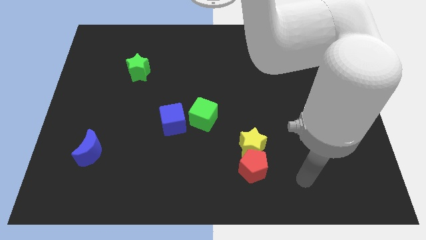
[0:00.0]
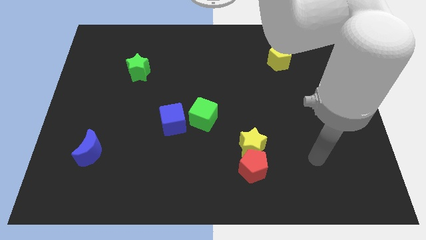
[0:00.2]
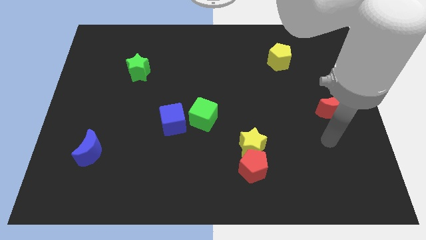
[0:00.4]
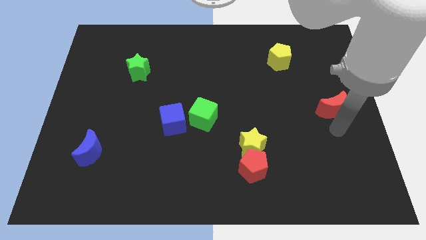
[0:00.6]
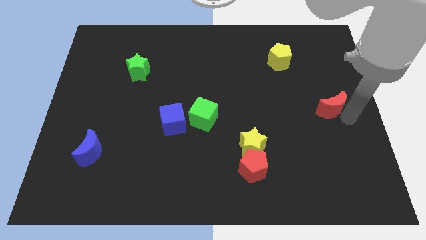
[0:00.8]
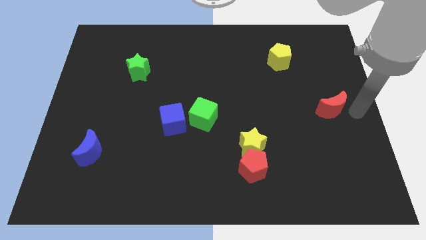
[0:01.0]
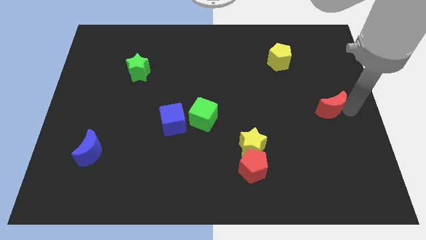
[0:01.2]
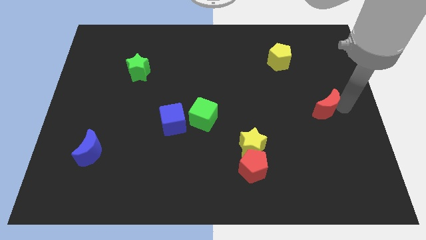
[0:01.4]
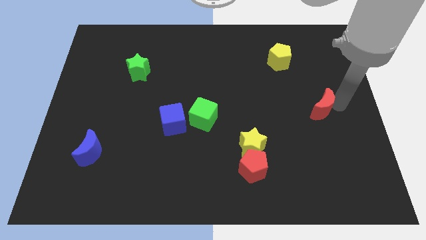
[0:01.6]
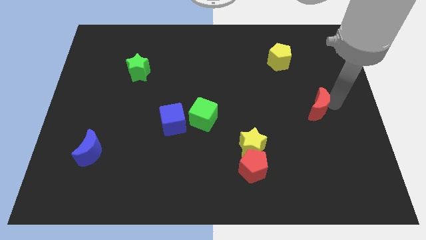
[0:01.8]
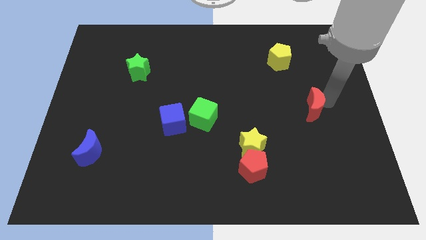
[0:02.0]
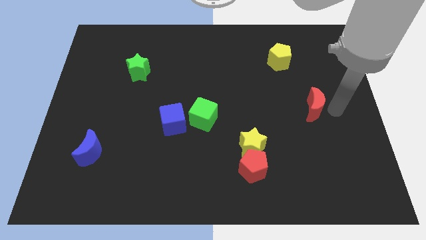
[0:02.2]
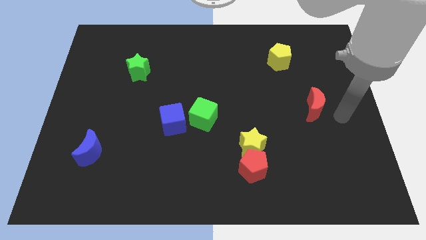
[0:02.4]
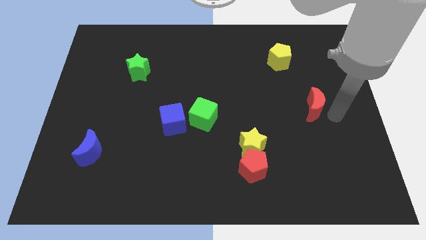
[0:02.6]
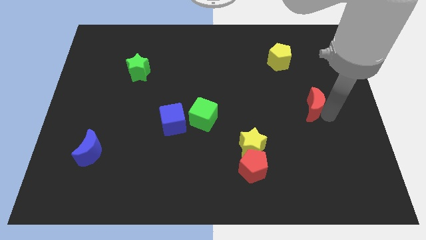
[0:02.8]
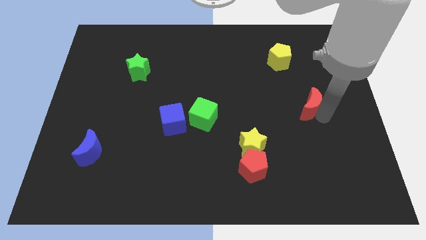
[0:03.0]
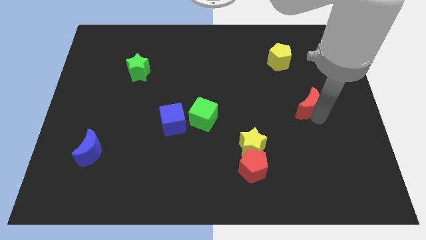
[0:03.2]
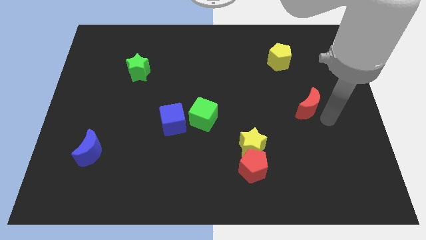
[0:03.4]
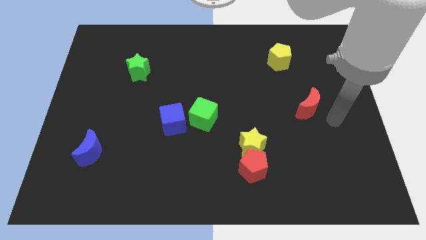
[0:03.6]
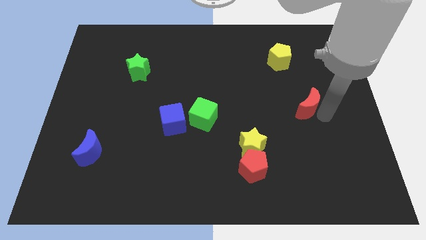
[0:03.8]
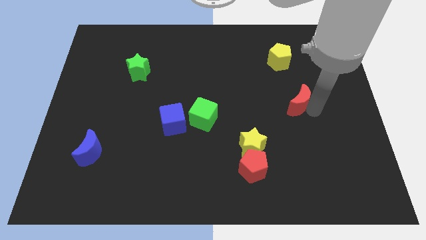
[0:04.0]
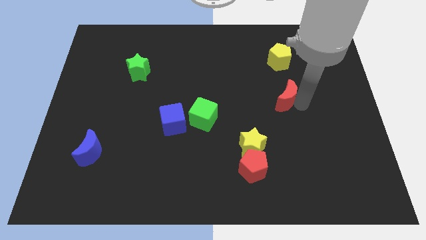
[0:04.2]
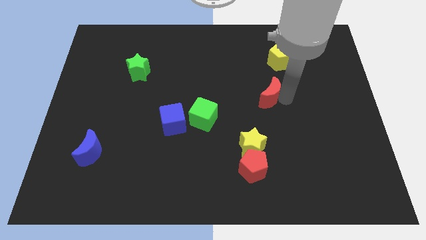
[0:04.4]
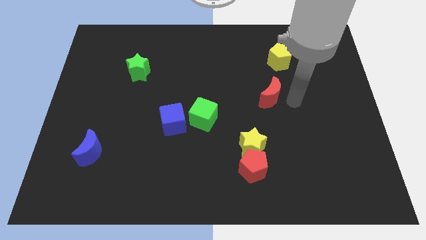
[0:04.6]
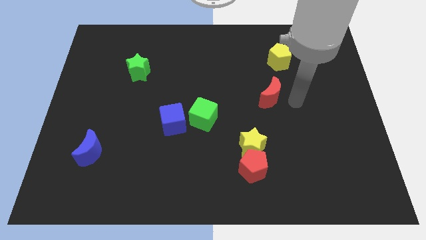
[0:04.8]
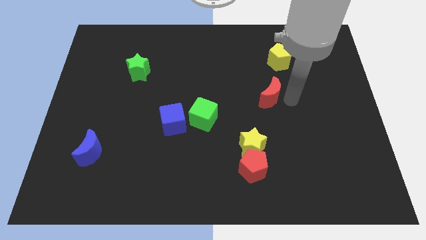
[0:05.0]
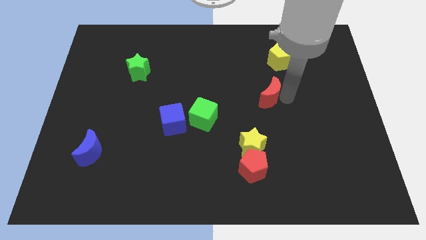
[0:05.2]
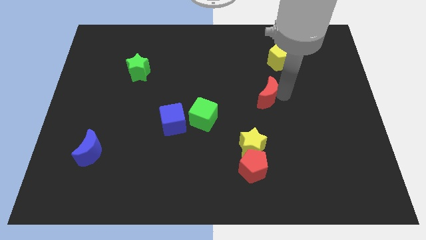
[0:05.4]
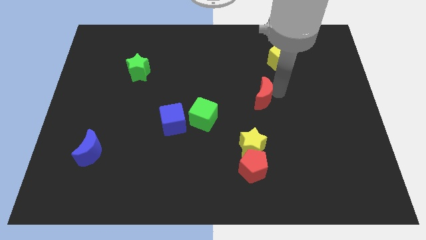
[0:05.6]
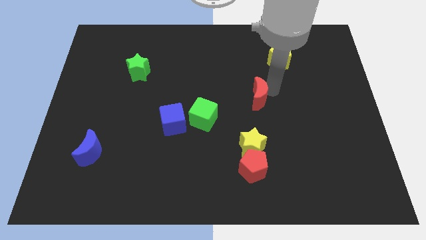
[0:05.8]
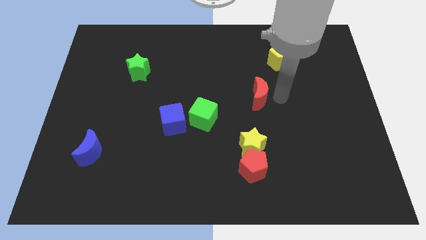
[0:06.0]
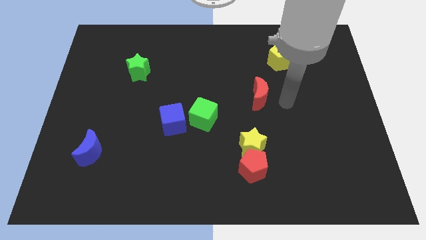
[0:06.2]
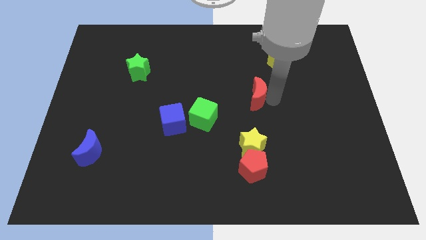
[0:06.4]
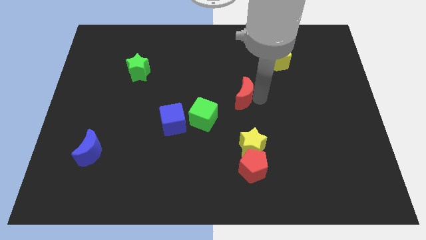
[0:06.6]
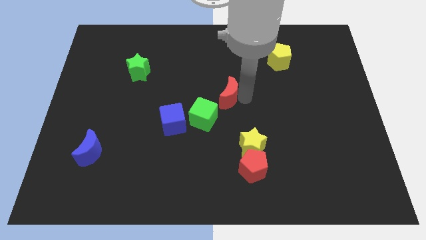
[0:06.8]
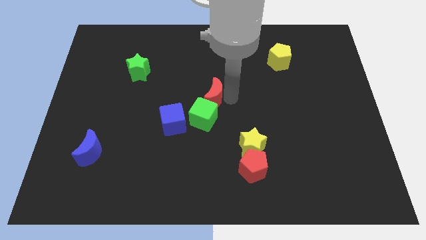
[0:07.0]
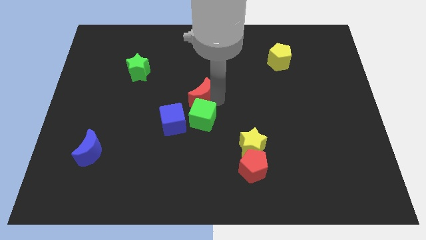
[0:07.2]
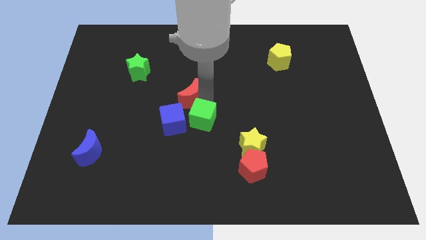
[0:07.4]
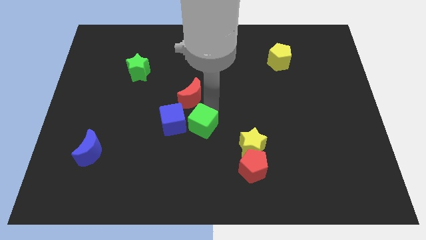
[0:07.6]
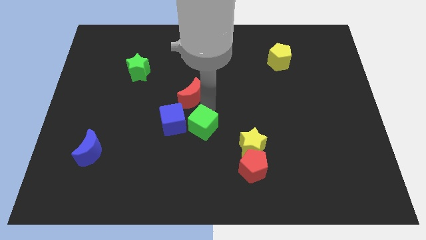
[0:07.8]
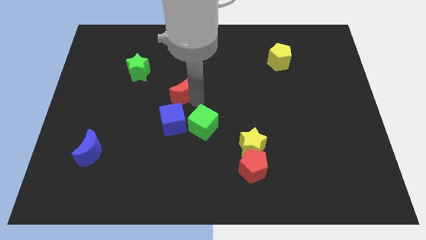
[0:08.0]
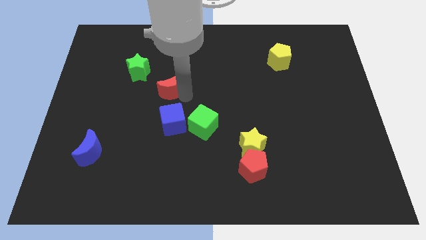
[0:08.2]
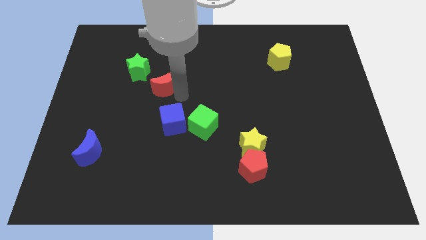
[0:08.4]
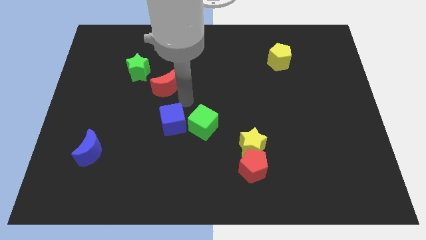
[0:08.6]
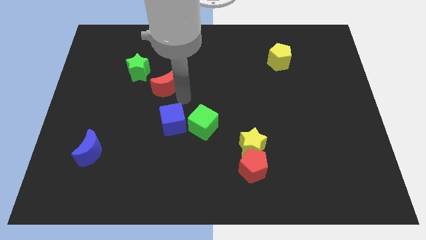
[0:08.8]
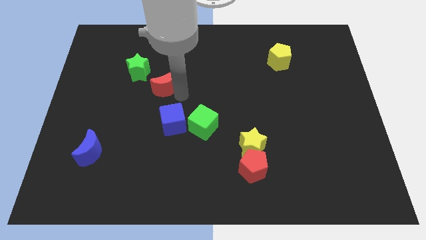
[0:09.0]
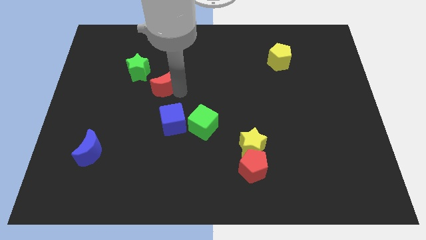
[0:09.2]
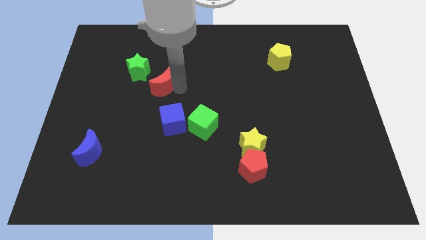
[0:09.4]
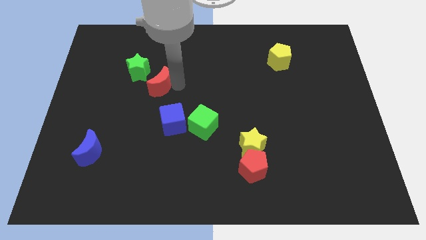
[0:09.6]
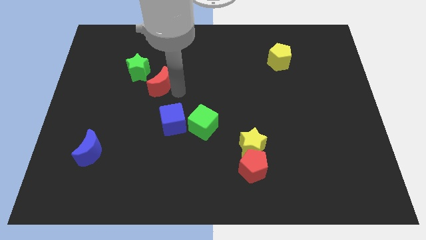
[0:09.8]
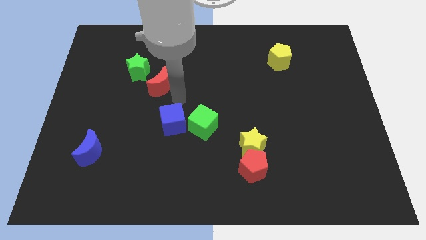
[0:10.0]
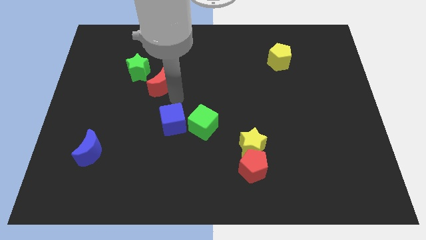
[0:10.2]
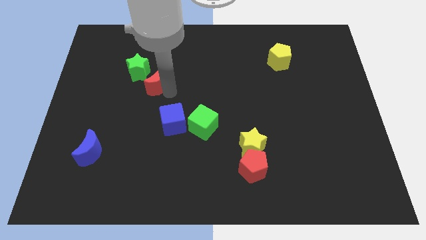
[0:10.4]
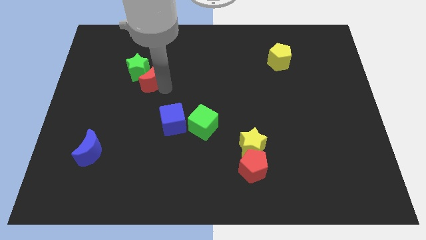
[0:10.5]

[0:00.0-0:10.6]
put the red moon to the green star

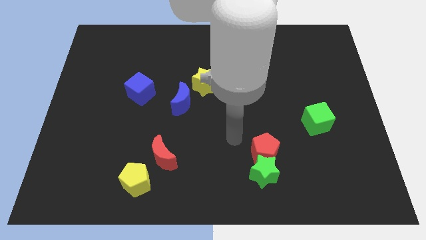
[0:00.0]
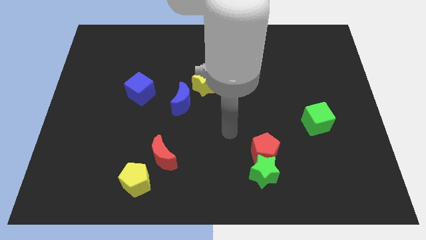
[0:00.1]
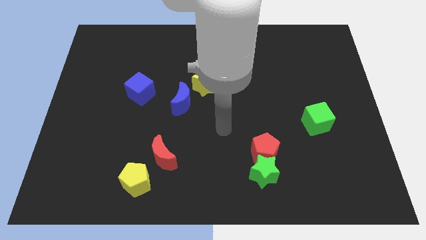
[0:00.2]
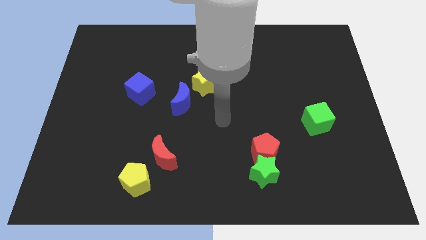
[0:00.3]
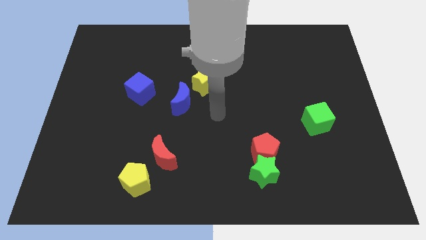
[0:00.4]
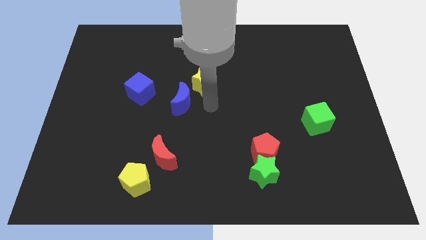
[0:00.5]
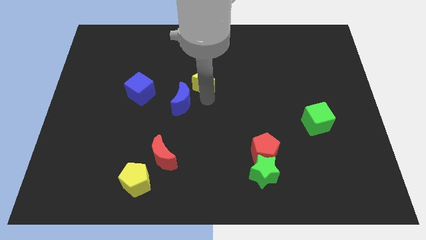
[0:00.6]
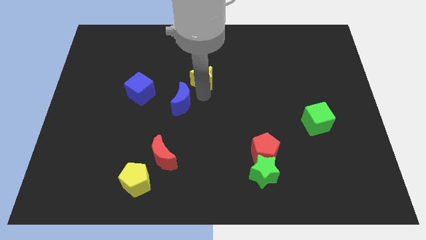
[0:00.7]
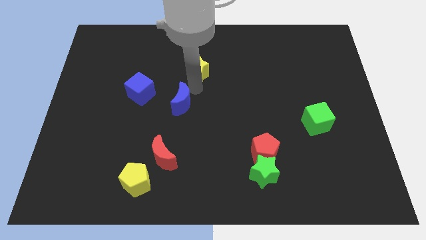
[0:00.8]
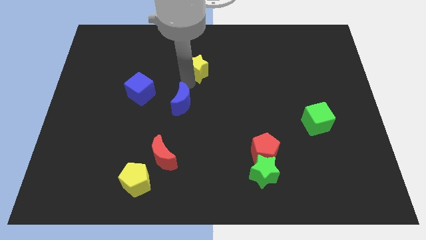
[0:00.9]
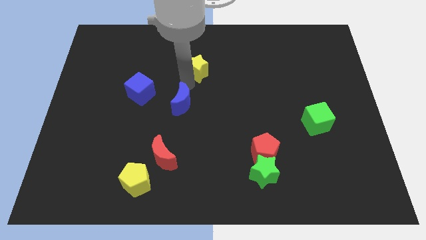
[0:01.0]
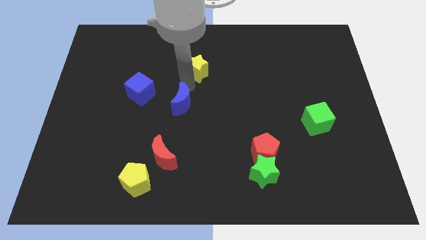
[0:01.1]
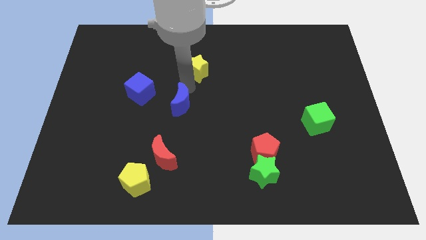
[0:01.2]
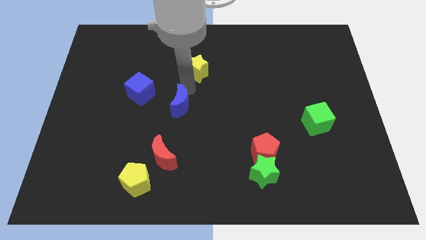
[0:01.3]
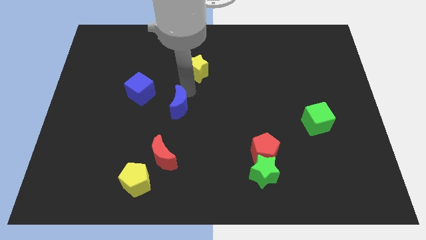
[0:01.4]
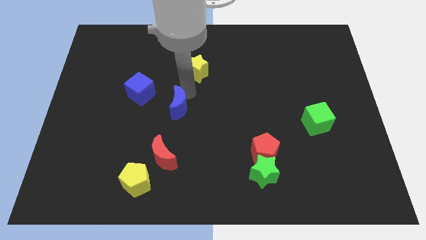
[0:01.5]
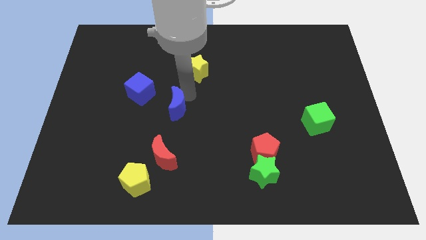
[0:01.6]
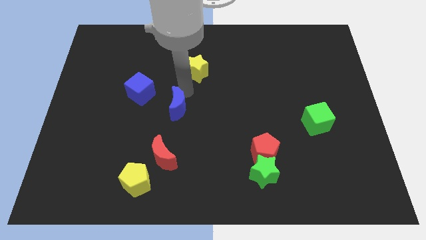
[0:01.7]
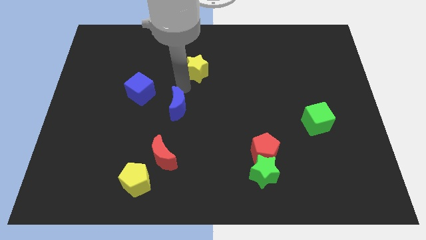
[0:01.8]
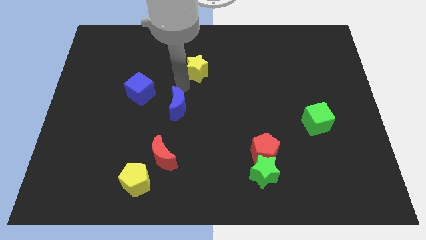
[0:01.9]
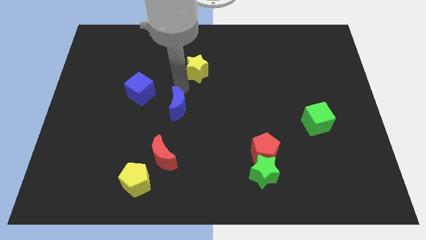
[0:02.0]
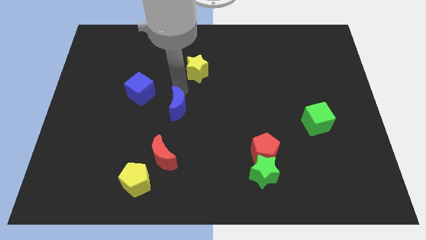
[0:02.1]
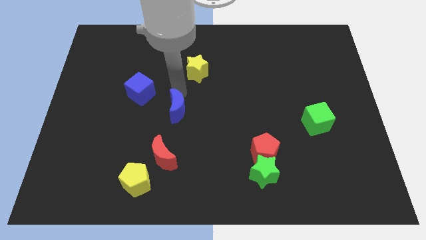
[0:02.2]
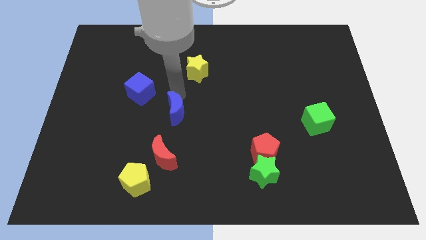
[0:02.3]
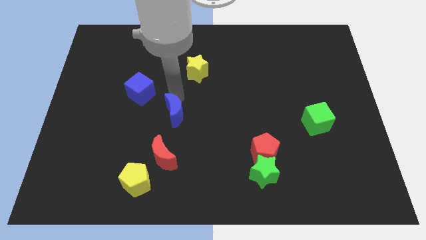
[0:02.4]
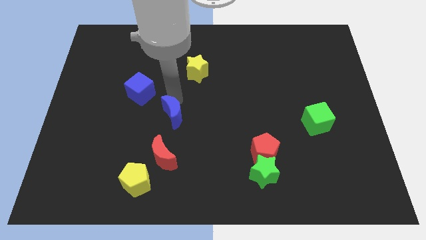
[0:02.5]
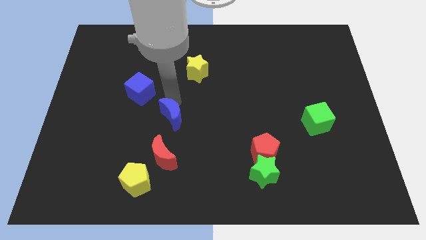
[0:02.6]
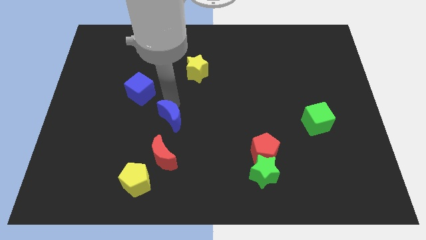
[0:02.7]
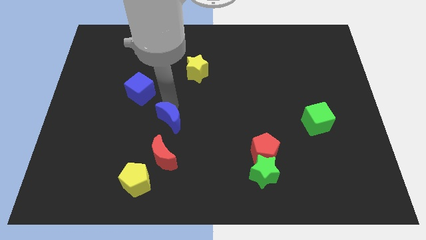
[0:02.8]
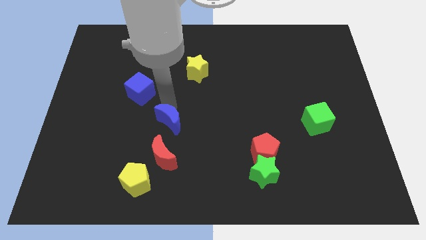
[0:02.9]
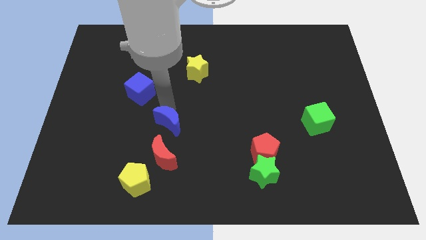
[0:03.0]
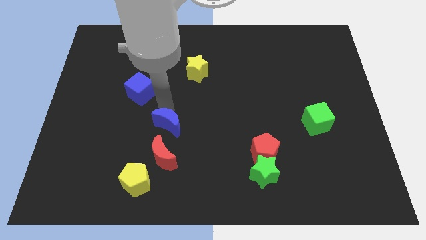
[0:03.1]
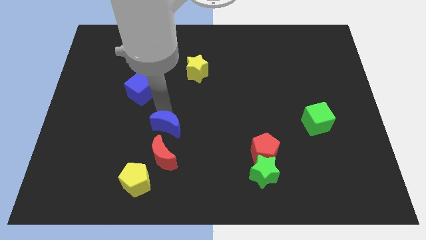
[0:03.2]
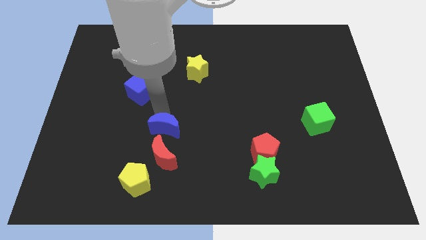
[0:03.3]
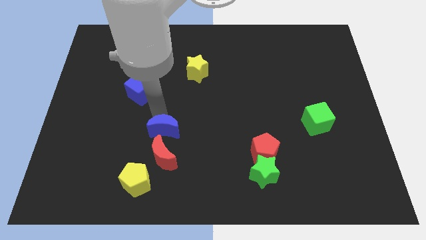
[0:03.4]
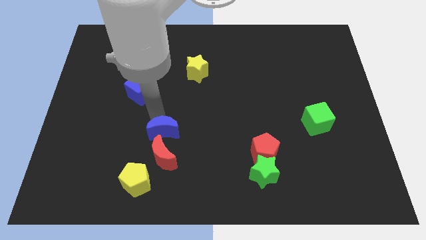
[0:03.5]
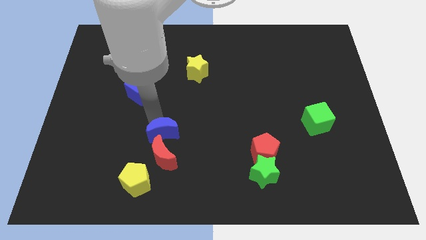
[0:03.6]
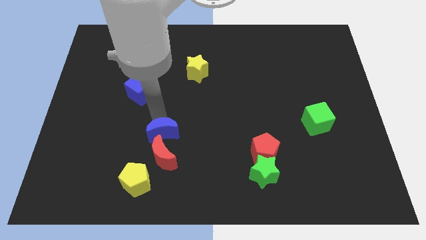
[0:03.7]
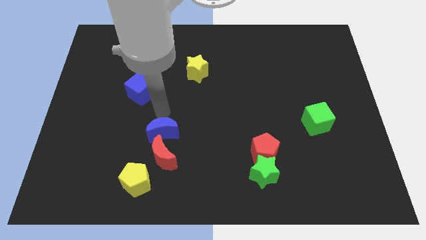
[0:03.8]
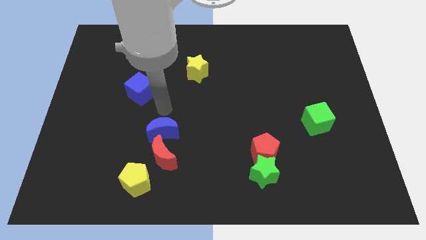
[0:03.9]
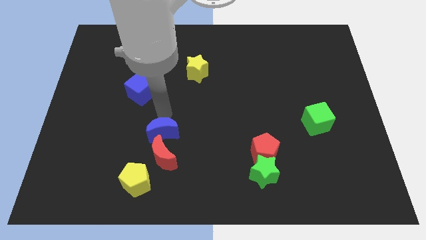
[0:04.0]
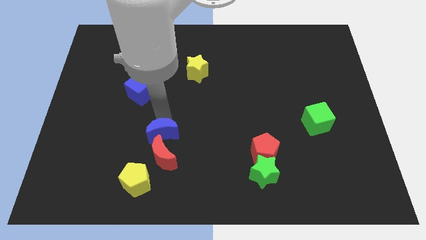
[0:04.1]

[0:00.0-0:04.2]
put the blue moon towards the red moon
